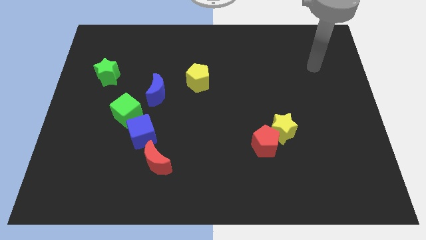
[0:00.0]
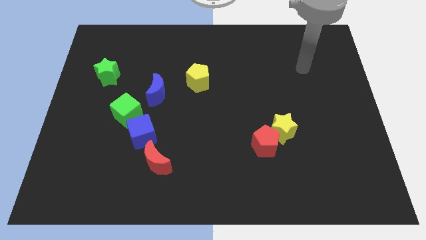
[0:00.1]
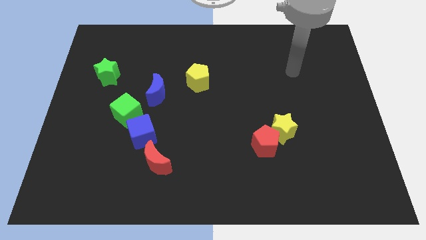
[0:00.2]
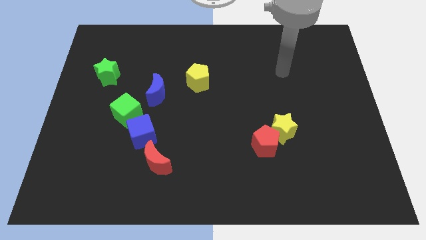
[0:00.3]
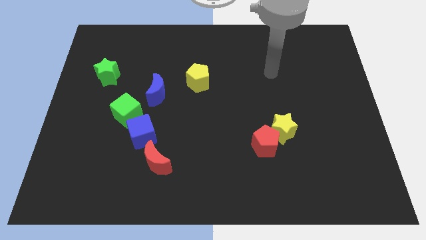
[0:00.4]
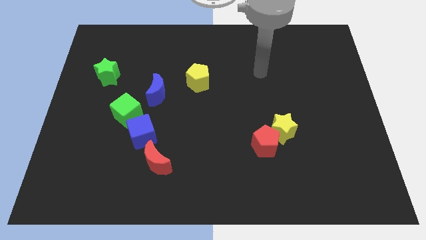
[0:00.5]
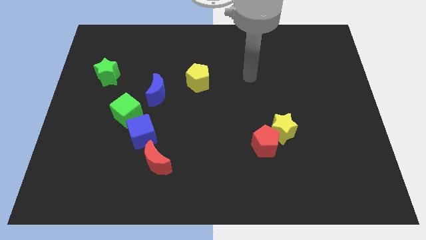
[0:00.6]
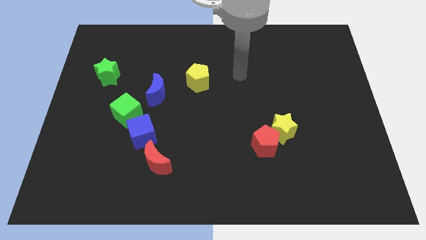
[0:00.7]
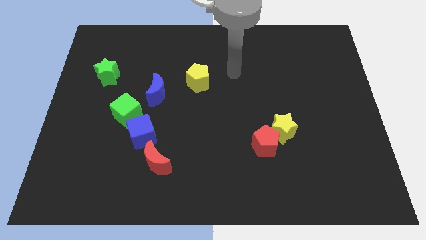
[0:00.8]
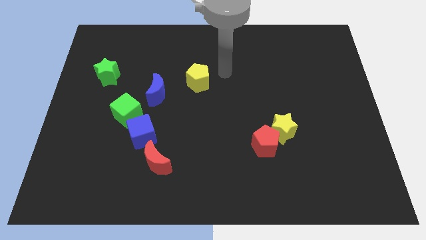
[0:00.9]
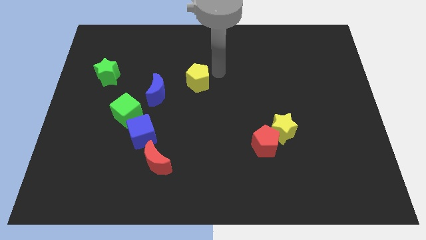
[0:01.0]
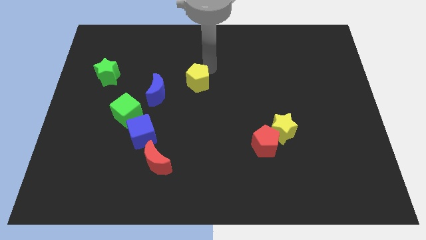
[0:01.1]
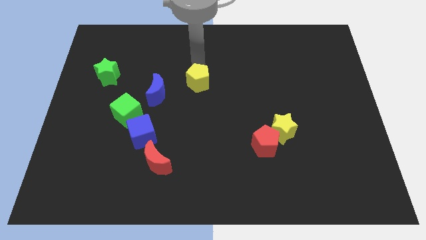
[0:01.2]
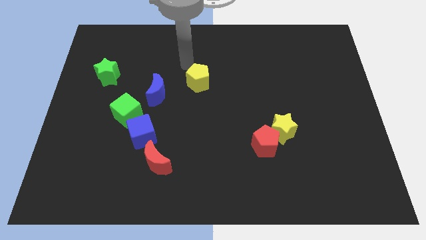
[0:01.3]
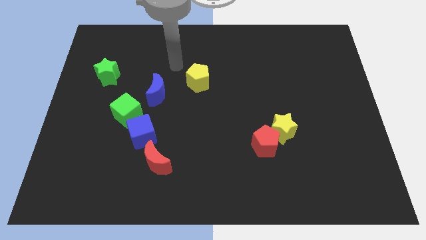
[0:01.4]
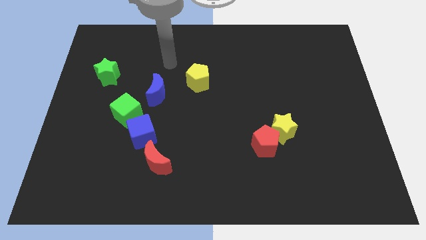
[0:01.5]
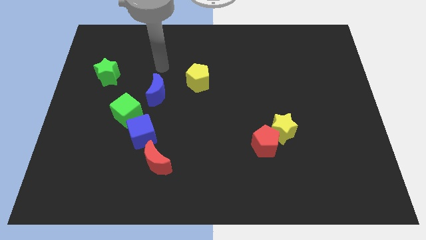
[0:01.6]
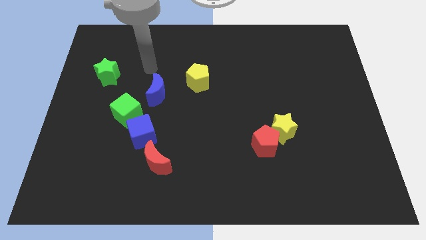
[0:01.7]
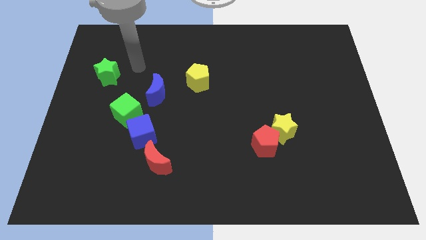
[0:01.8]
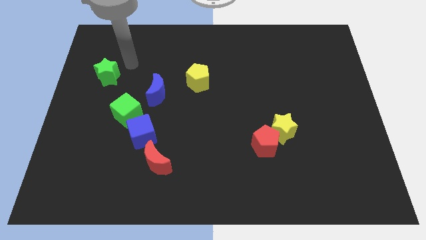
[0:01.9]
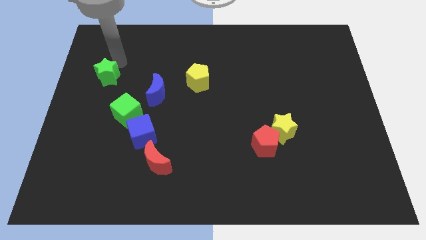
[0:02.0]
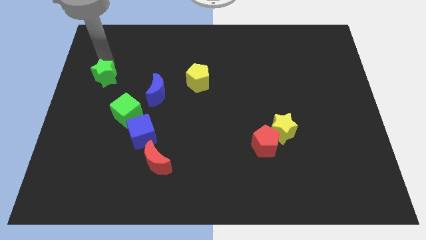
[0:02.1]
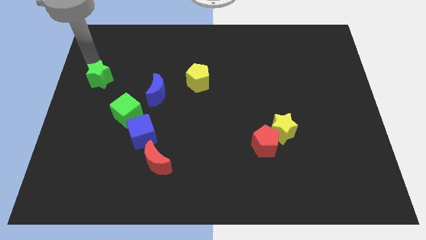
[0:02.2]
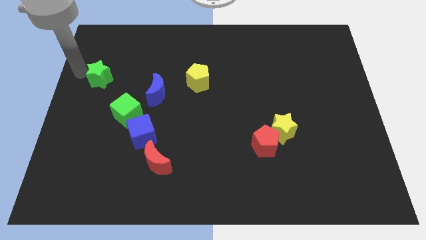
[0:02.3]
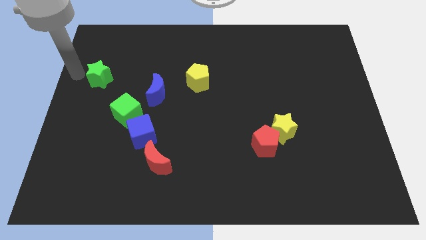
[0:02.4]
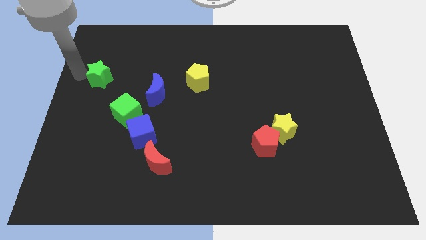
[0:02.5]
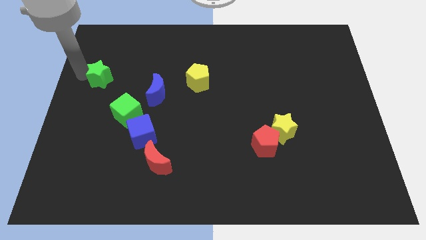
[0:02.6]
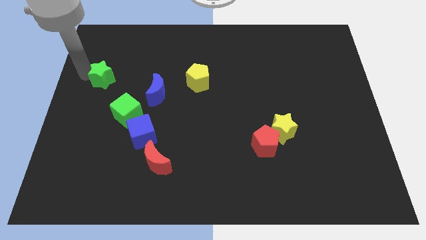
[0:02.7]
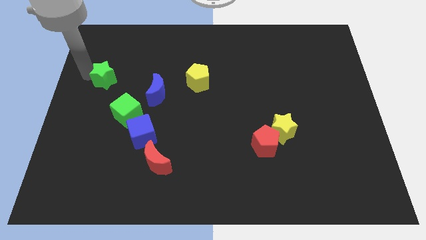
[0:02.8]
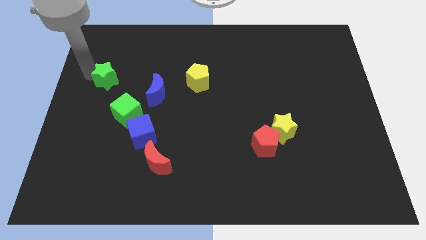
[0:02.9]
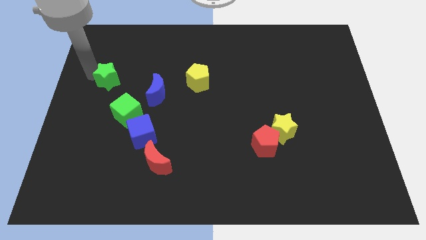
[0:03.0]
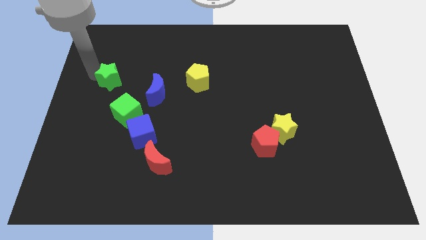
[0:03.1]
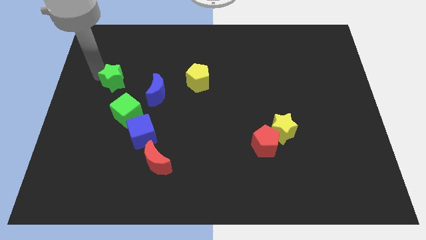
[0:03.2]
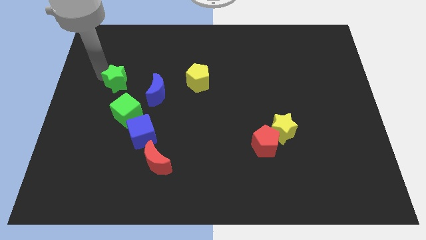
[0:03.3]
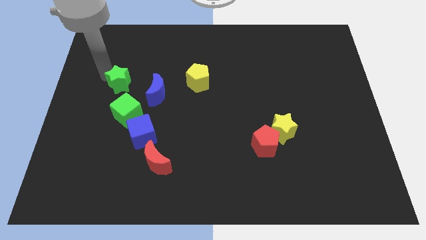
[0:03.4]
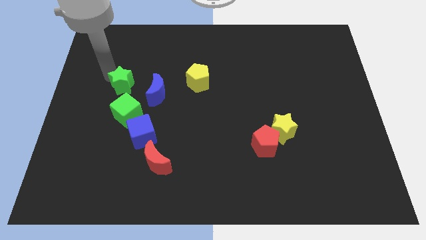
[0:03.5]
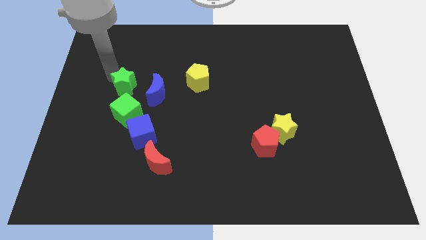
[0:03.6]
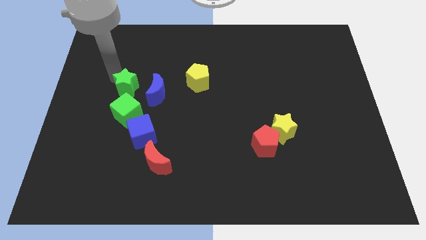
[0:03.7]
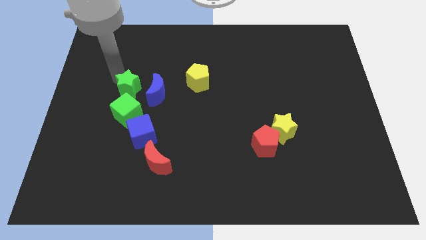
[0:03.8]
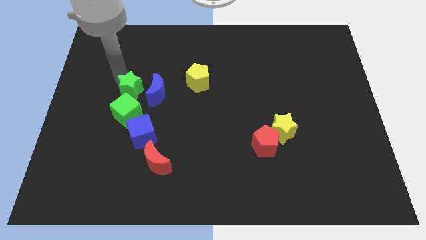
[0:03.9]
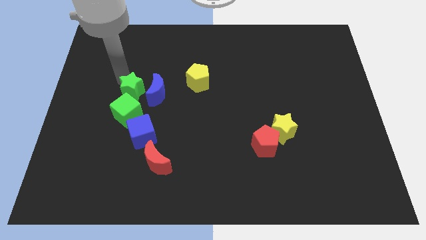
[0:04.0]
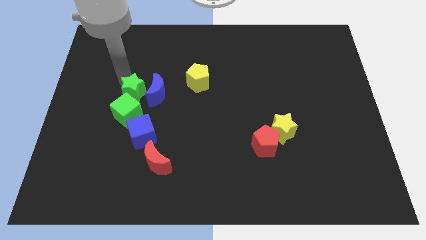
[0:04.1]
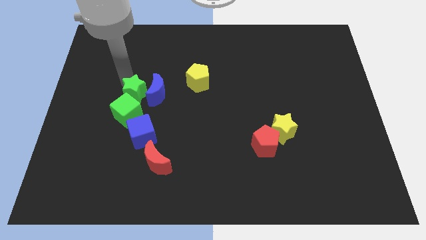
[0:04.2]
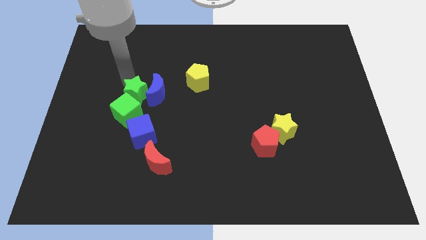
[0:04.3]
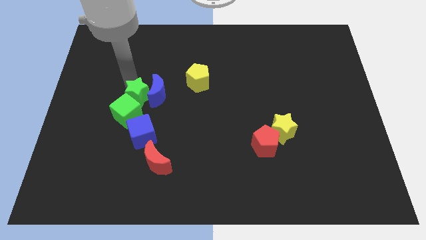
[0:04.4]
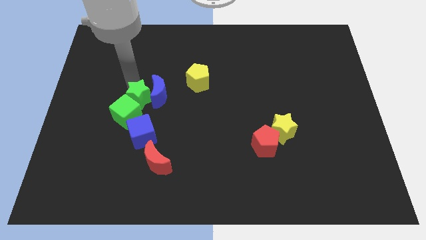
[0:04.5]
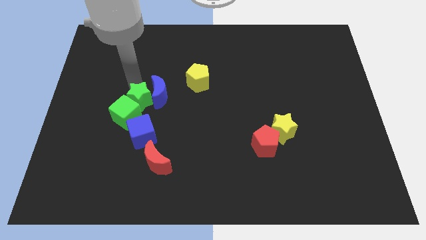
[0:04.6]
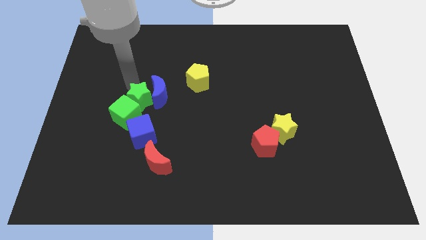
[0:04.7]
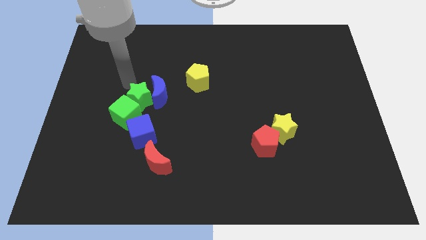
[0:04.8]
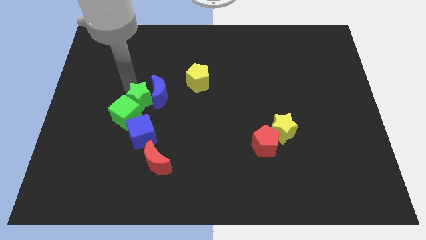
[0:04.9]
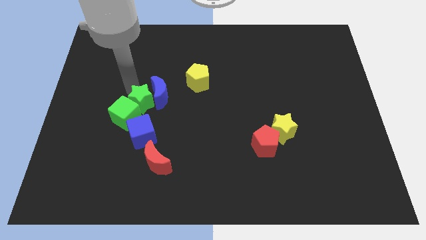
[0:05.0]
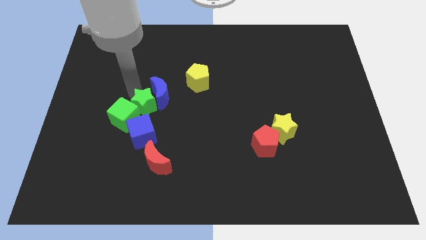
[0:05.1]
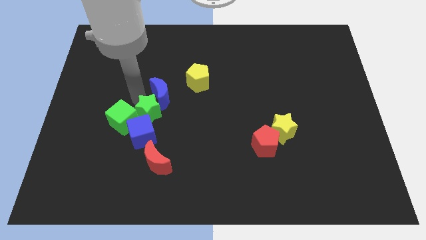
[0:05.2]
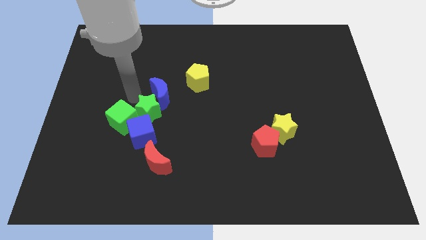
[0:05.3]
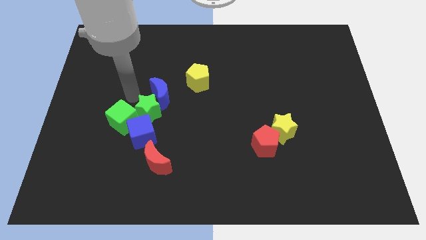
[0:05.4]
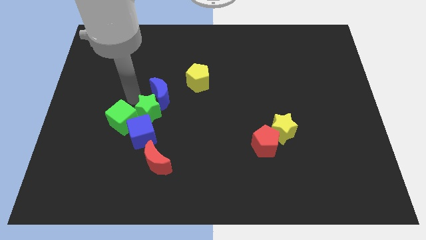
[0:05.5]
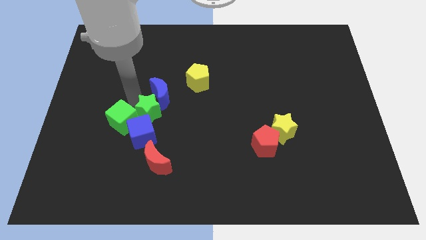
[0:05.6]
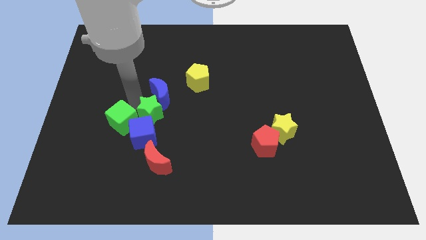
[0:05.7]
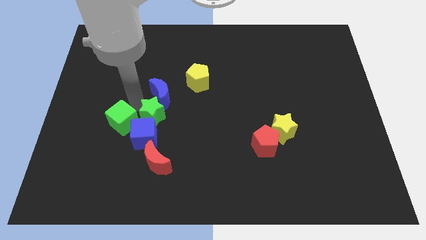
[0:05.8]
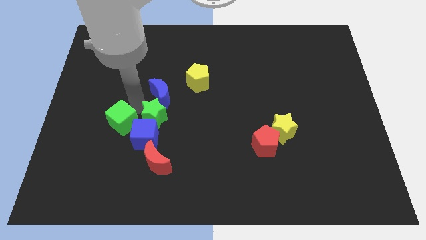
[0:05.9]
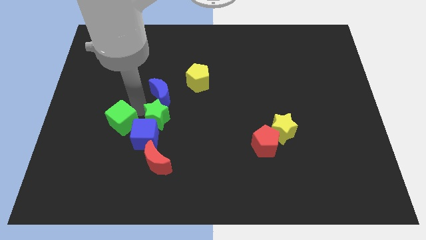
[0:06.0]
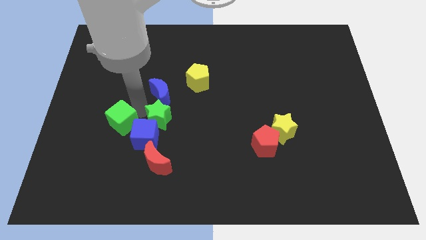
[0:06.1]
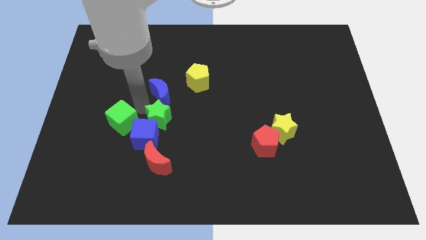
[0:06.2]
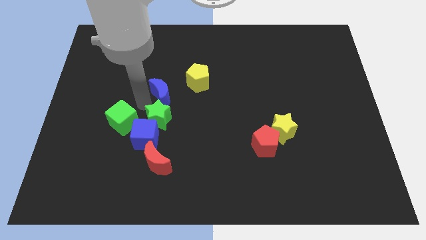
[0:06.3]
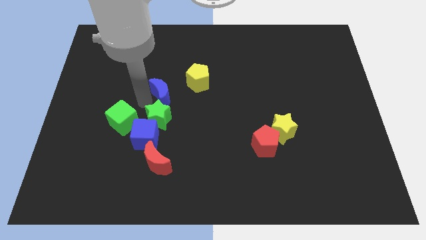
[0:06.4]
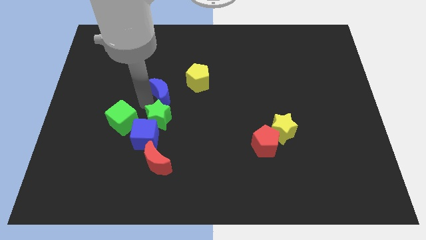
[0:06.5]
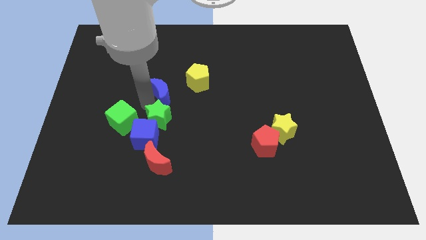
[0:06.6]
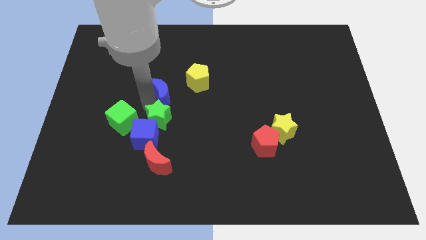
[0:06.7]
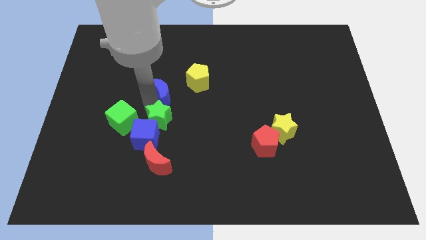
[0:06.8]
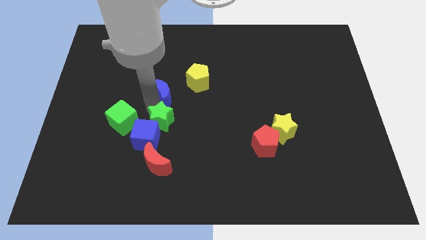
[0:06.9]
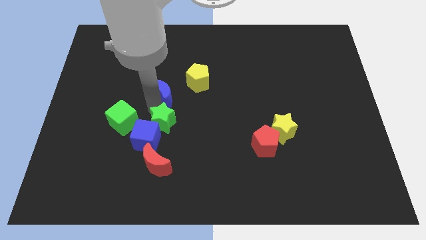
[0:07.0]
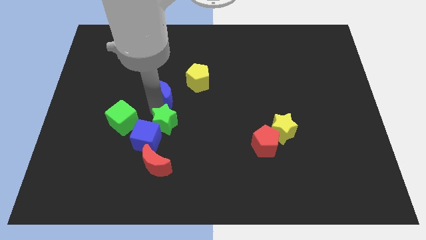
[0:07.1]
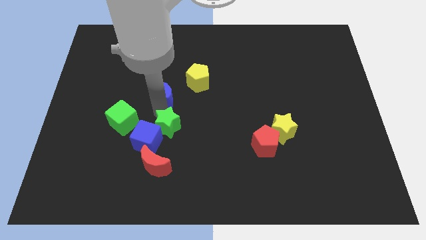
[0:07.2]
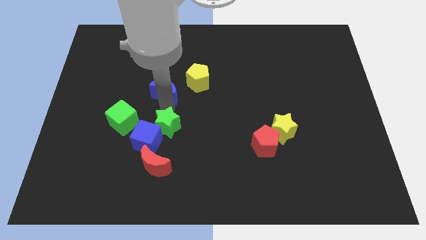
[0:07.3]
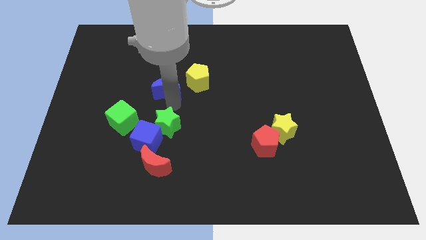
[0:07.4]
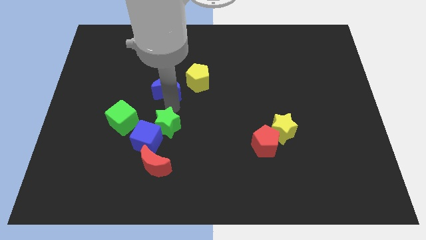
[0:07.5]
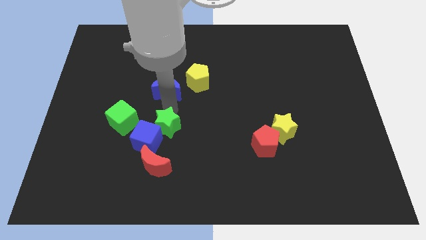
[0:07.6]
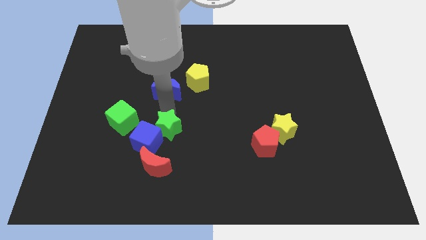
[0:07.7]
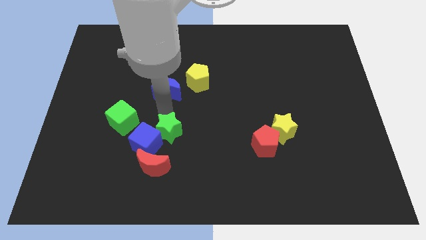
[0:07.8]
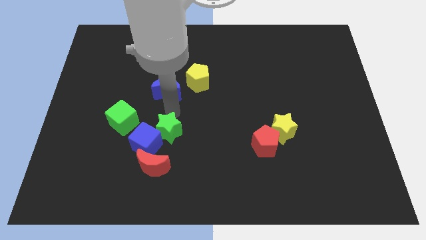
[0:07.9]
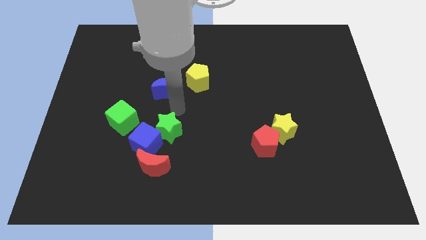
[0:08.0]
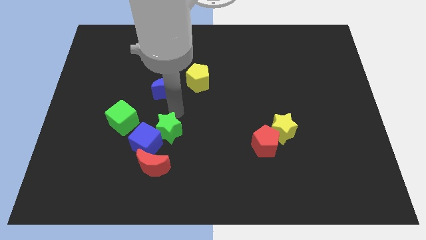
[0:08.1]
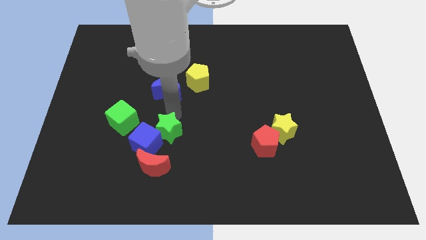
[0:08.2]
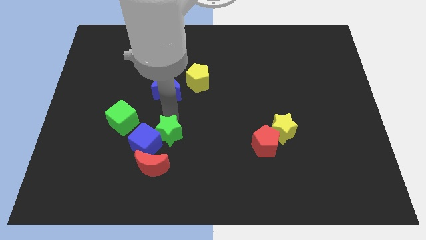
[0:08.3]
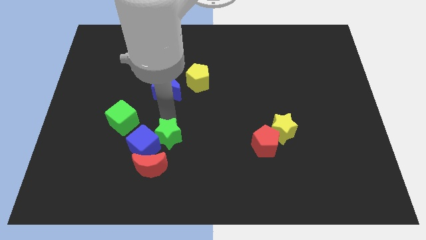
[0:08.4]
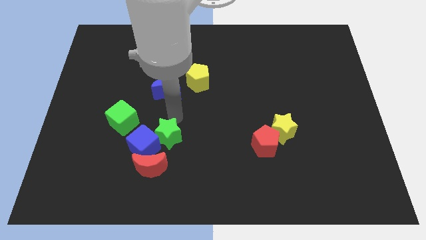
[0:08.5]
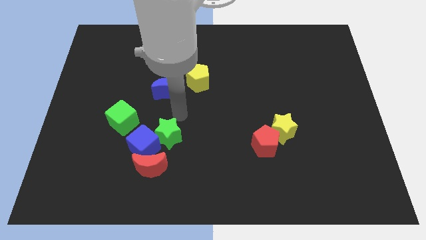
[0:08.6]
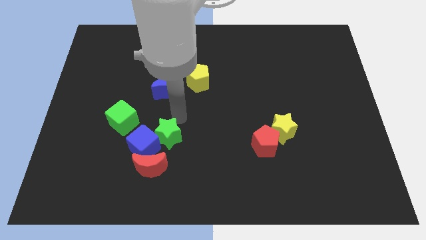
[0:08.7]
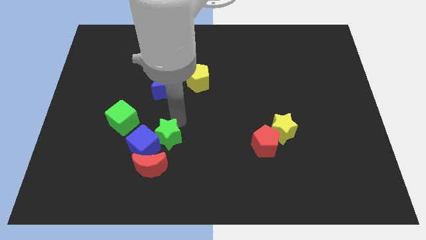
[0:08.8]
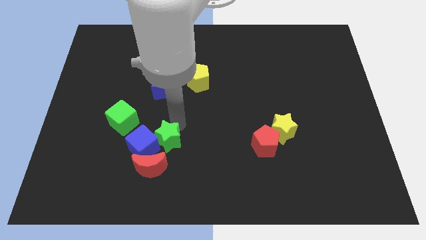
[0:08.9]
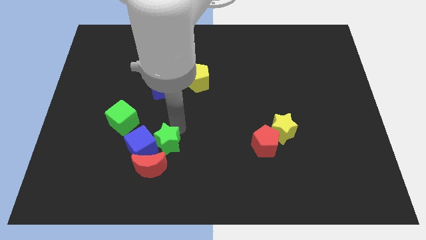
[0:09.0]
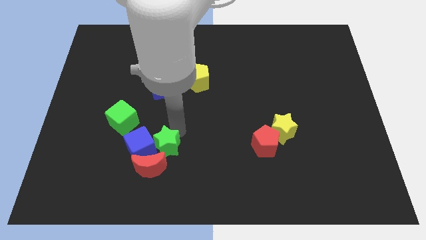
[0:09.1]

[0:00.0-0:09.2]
move the green star close to the red moon
